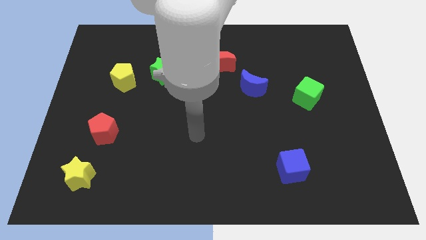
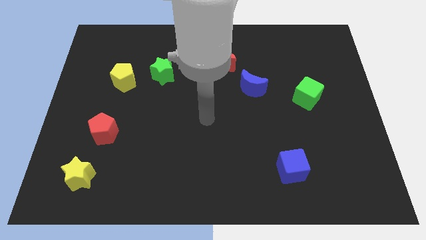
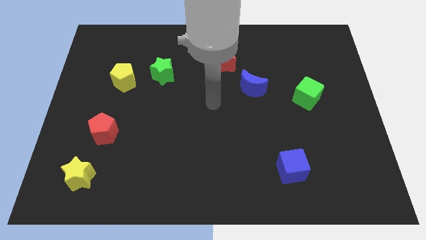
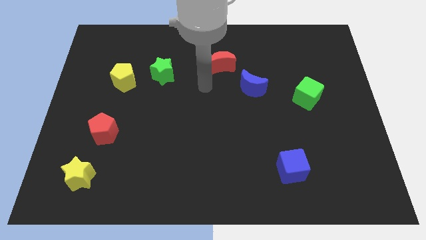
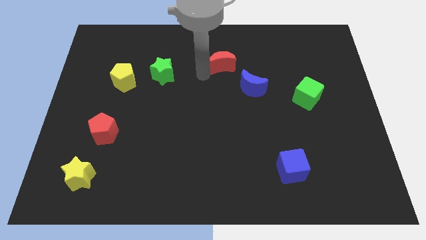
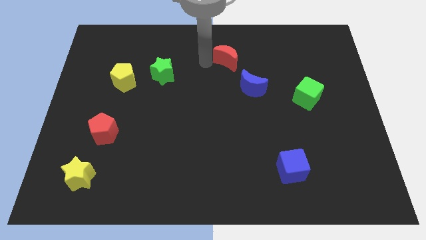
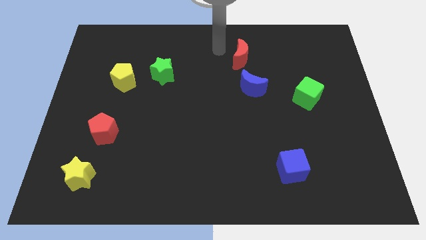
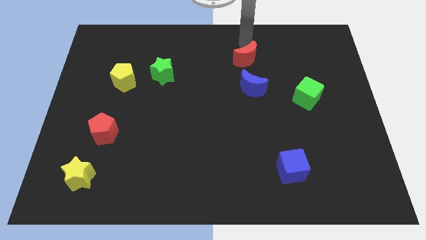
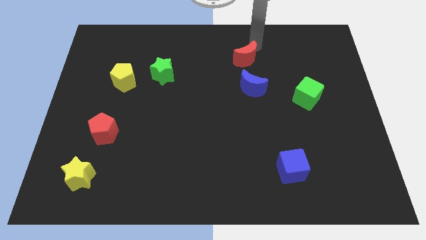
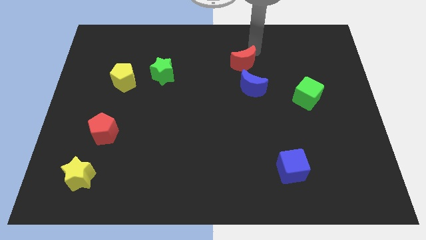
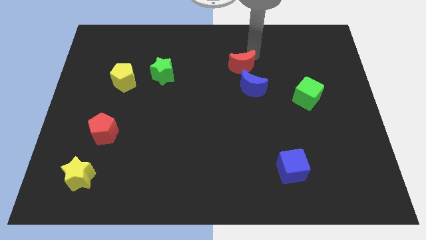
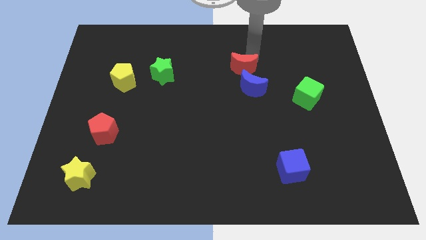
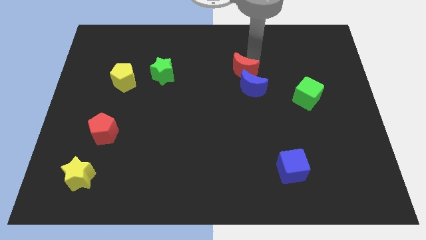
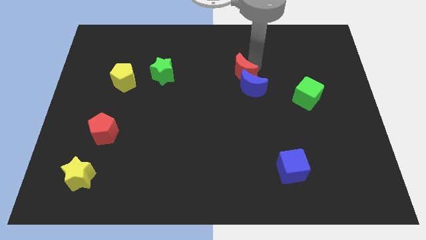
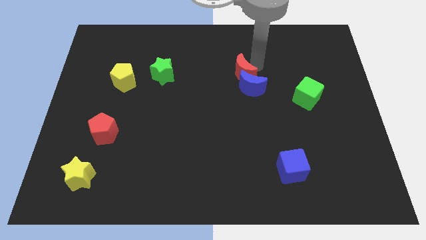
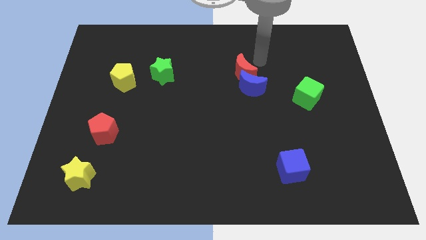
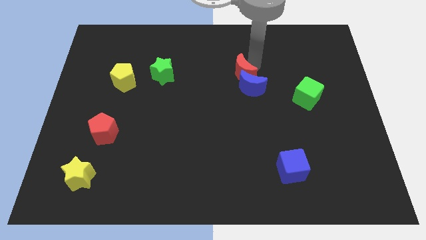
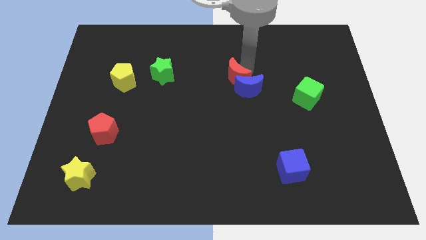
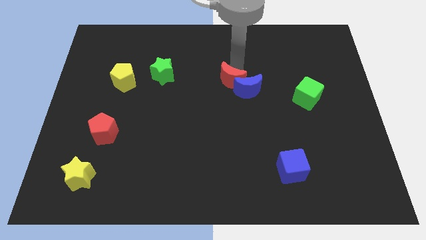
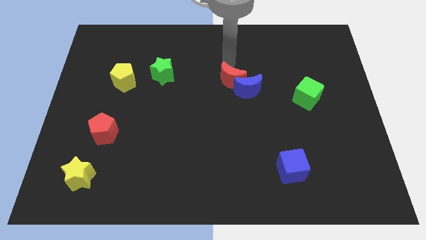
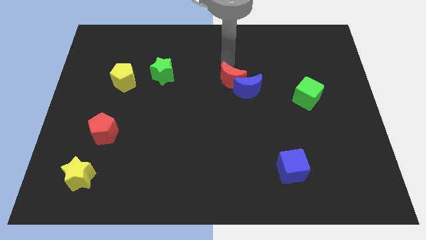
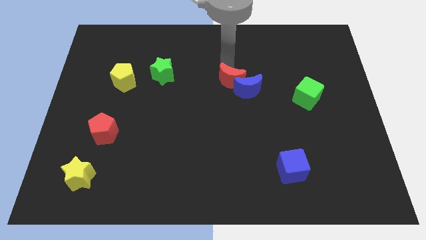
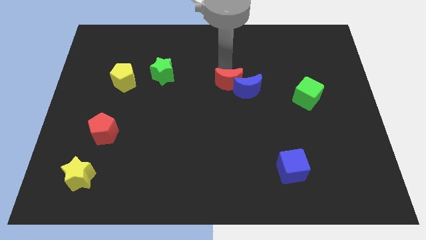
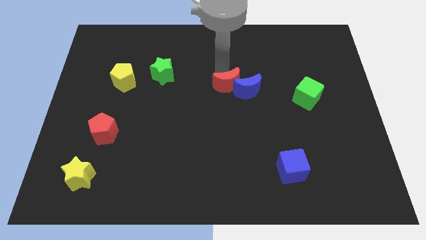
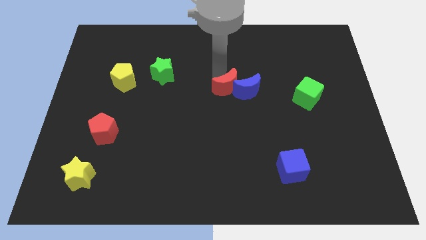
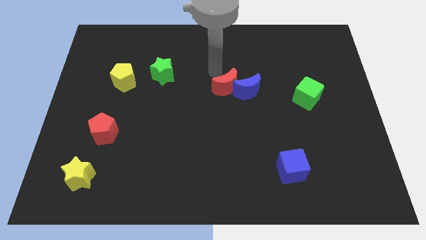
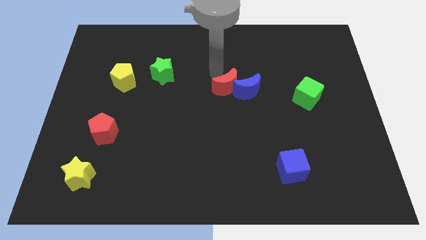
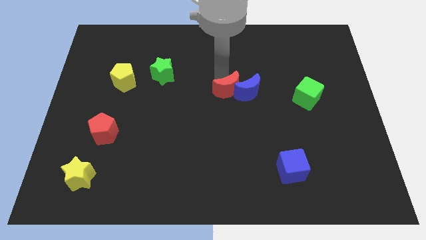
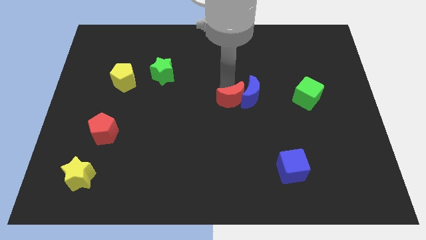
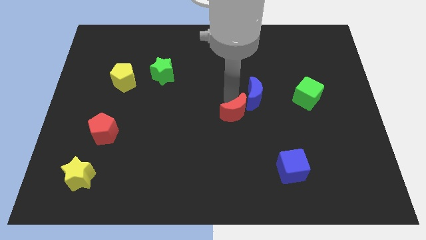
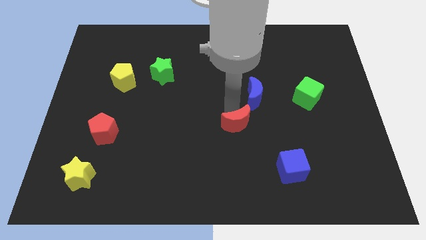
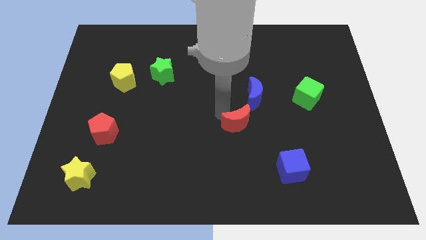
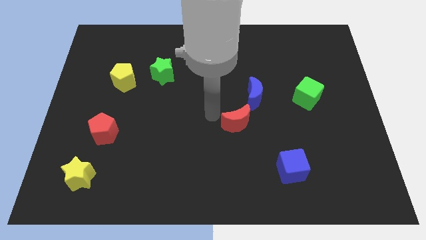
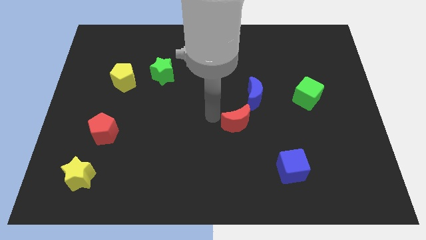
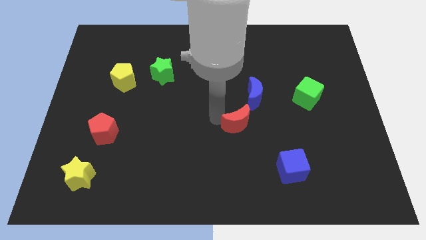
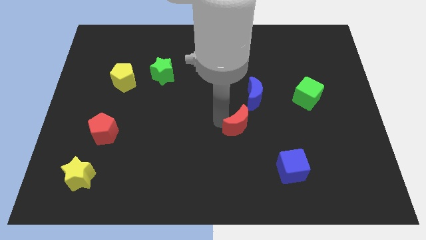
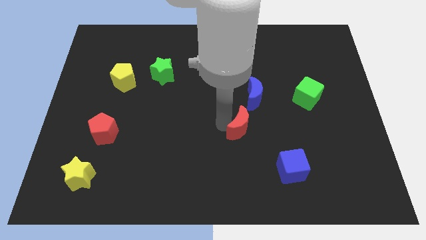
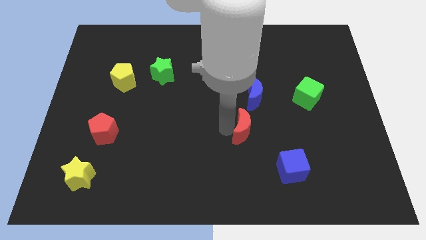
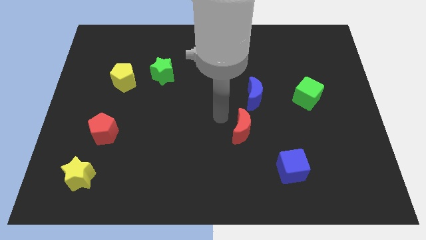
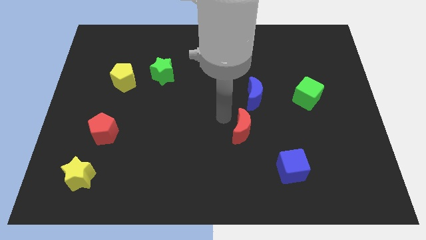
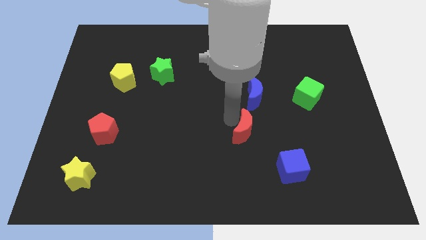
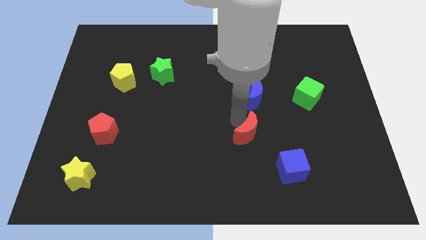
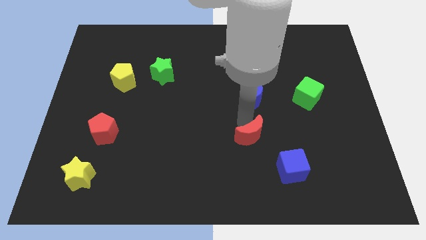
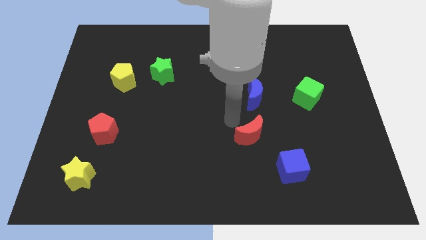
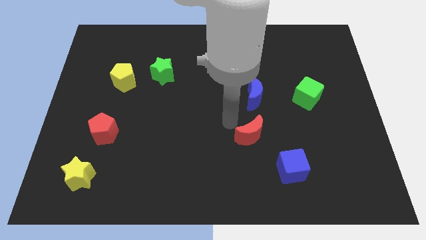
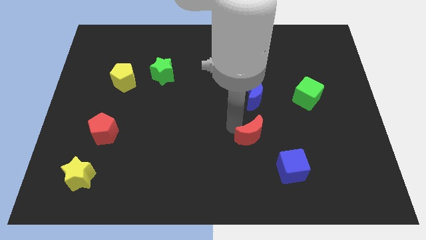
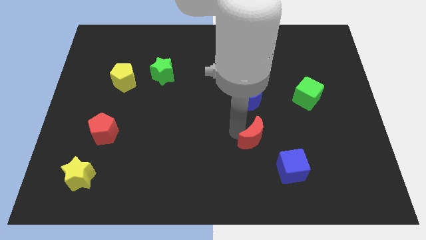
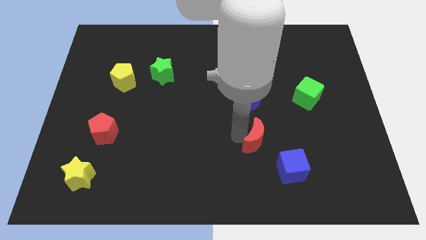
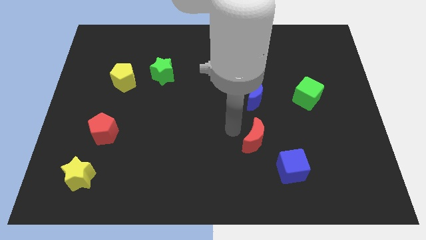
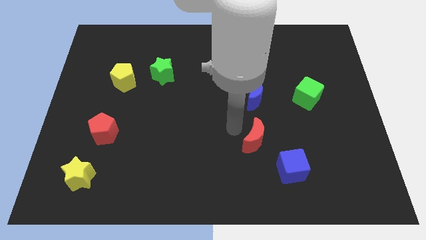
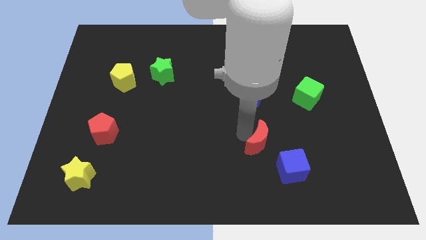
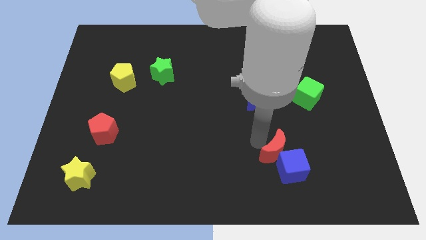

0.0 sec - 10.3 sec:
push the red moon close to the blue cube

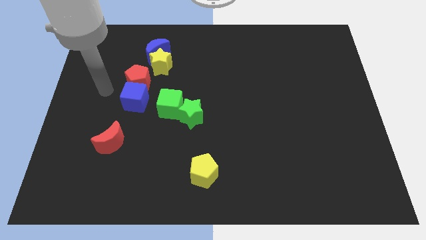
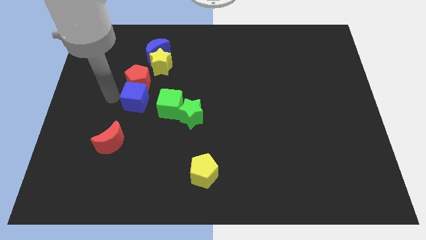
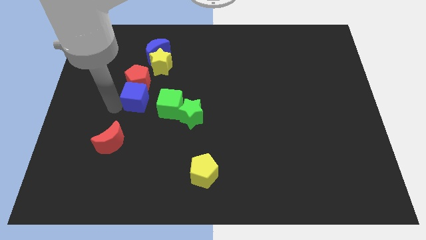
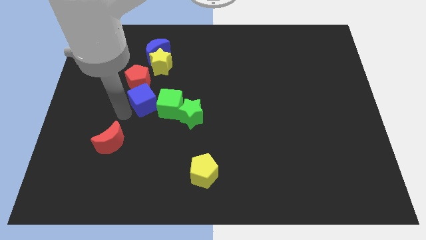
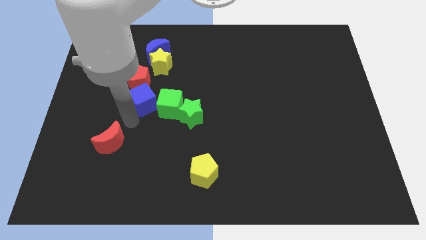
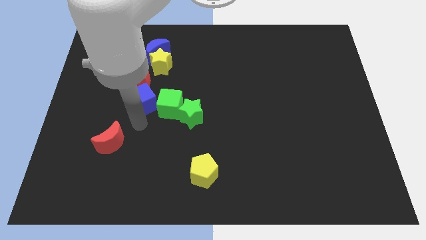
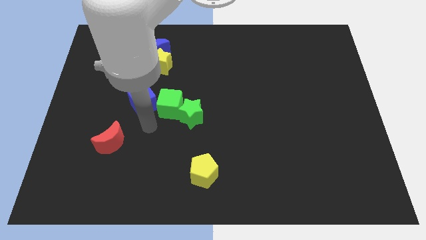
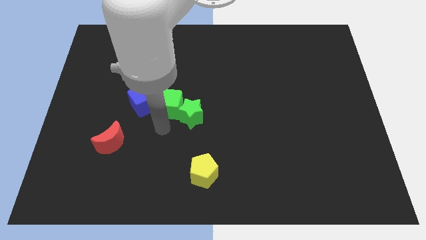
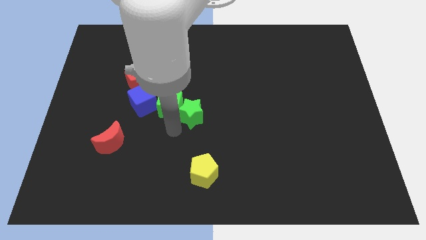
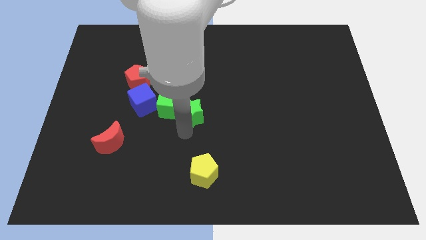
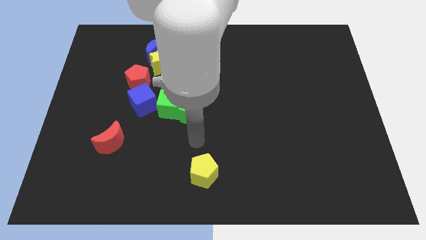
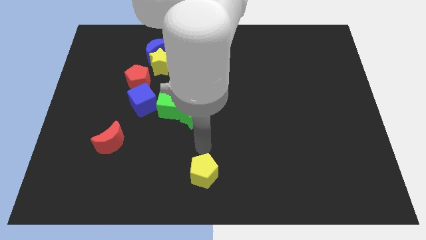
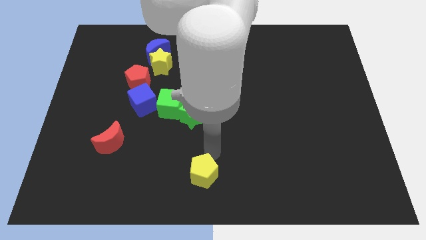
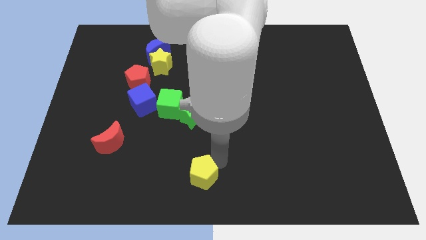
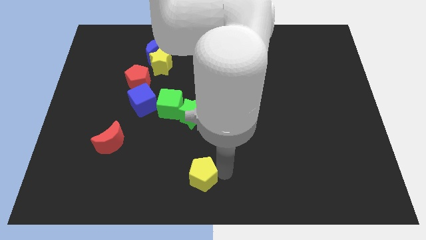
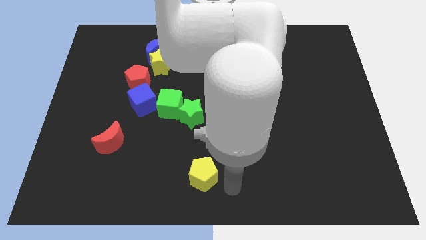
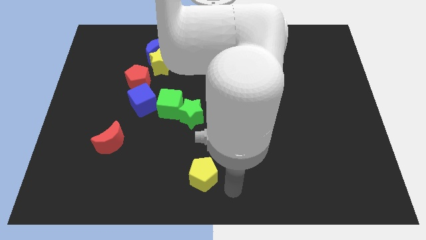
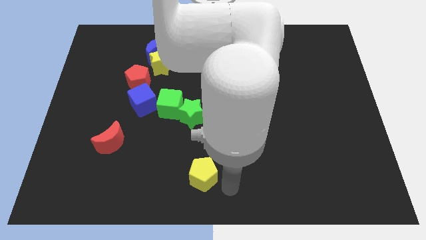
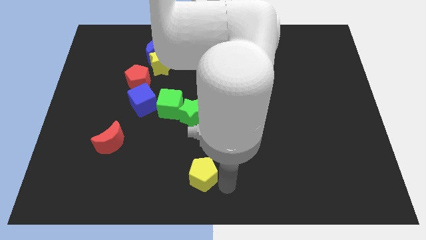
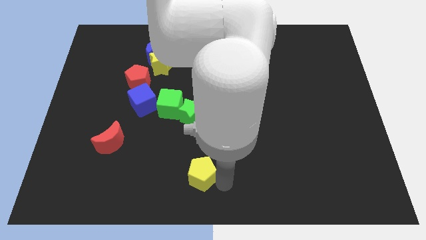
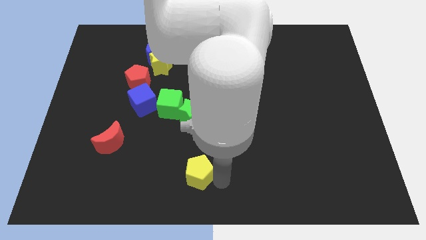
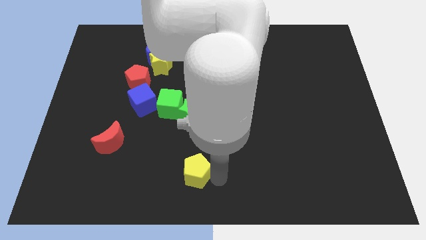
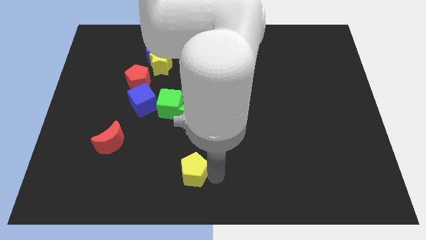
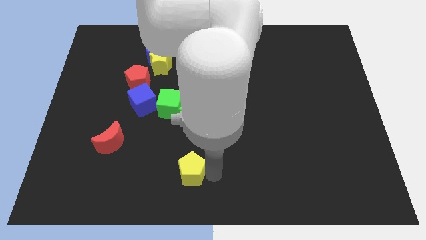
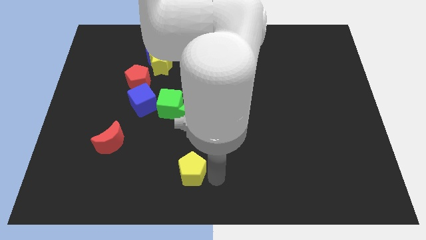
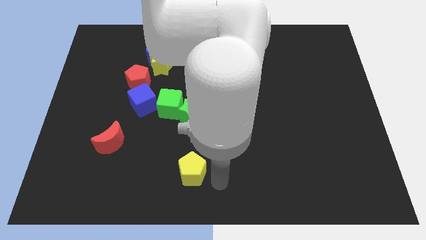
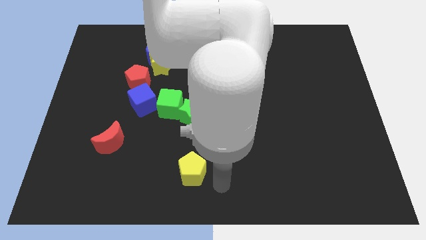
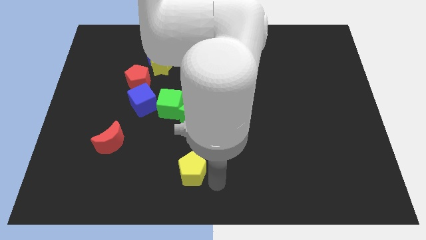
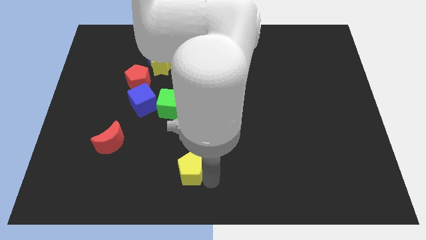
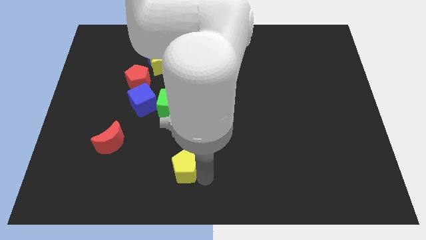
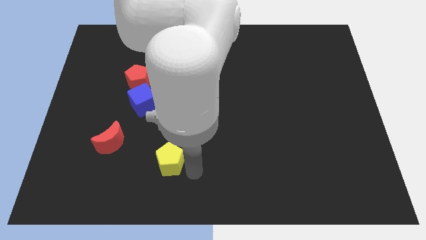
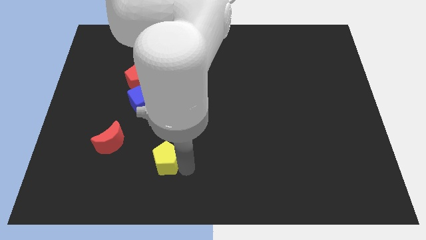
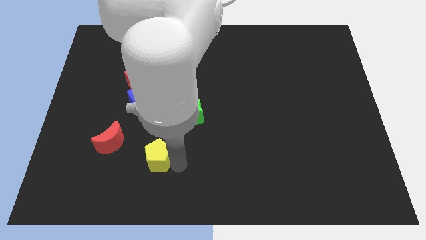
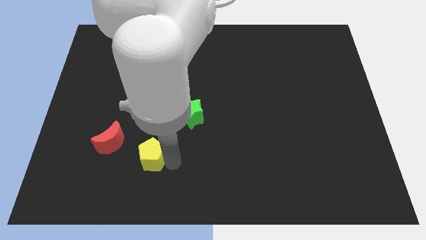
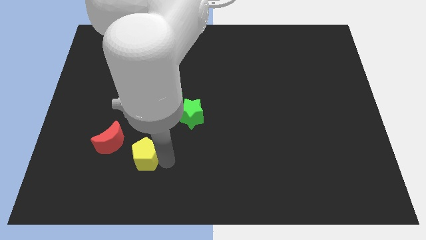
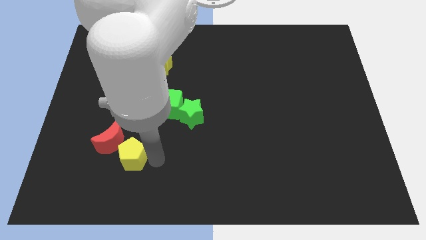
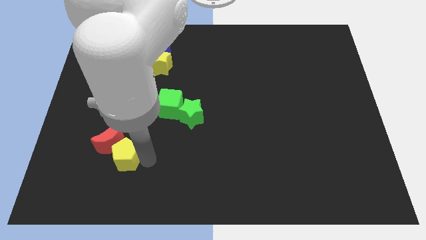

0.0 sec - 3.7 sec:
put the yellow pentagon towards the red moon
